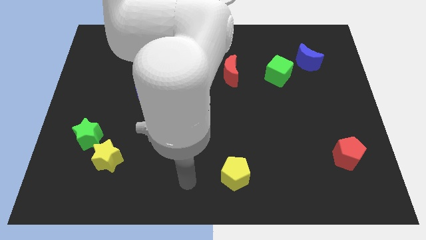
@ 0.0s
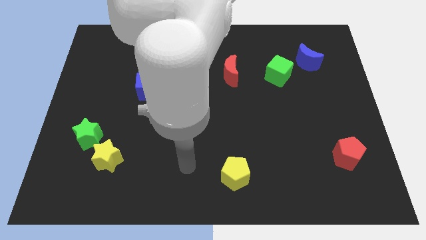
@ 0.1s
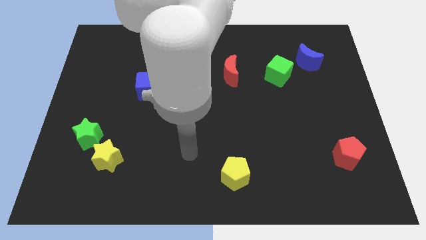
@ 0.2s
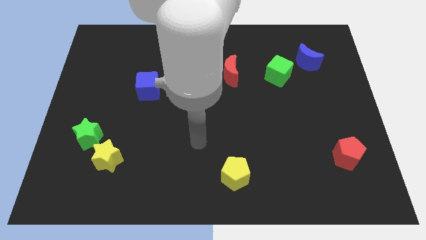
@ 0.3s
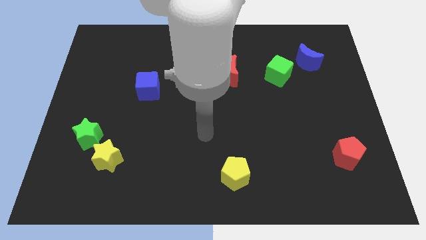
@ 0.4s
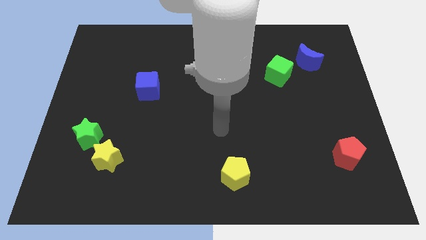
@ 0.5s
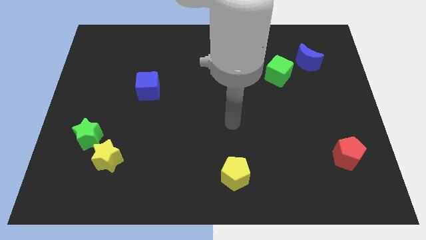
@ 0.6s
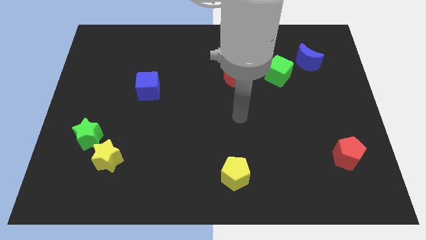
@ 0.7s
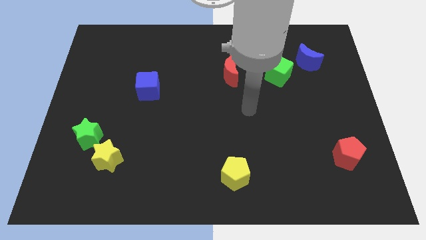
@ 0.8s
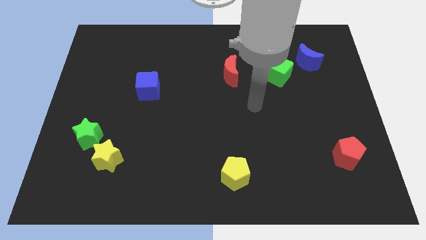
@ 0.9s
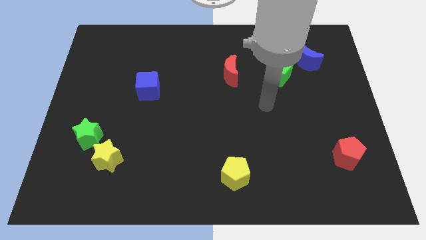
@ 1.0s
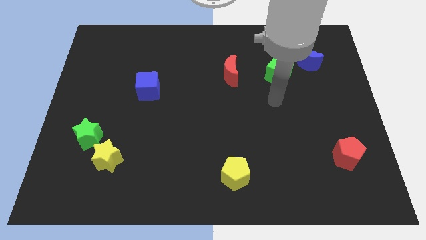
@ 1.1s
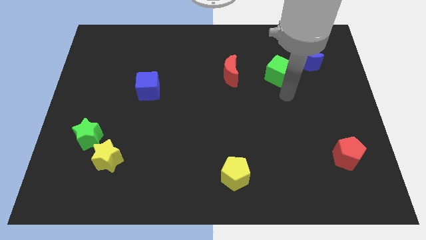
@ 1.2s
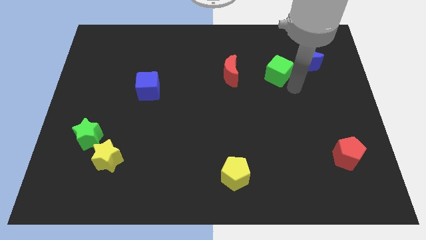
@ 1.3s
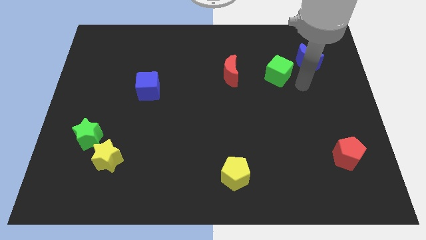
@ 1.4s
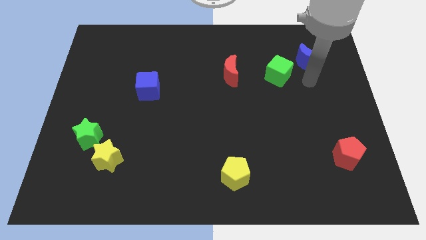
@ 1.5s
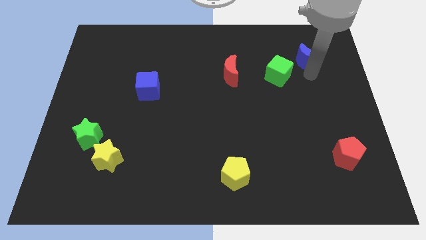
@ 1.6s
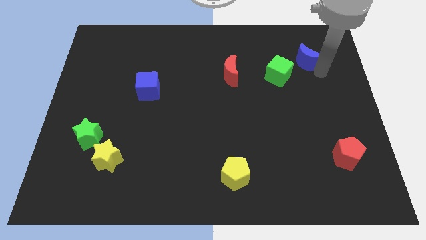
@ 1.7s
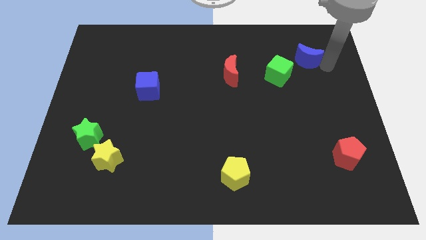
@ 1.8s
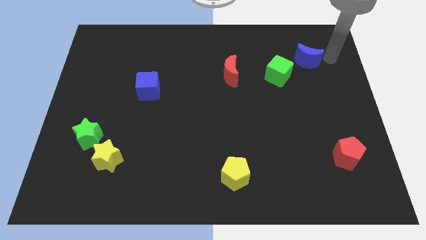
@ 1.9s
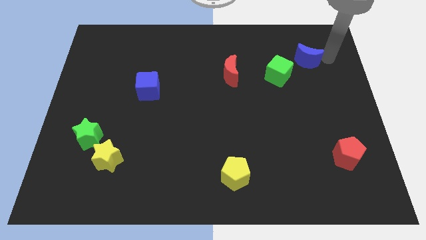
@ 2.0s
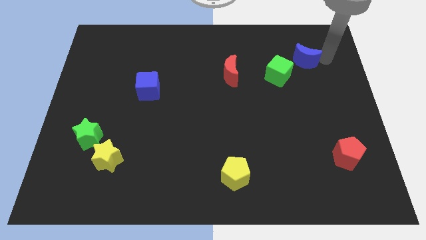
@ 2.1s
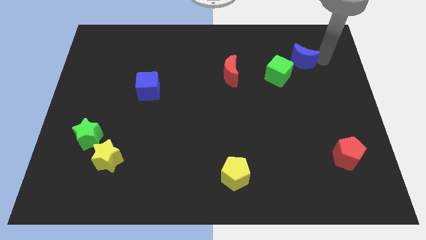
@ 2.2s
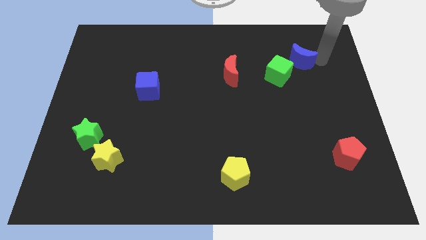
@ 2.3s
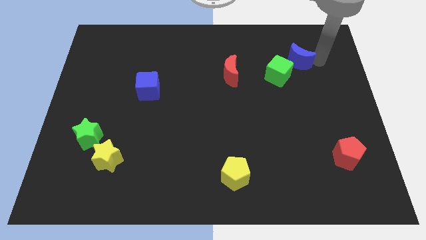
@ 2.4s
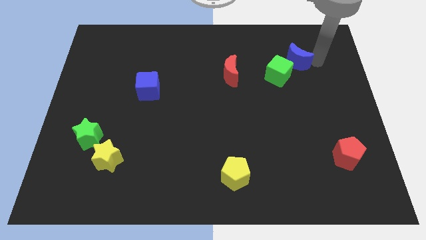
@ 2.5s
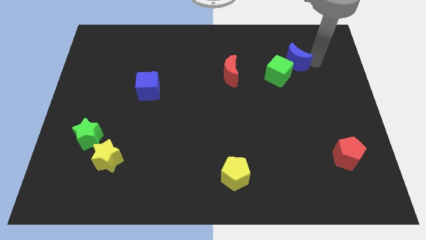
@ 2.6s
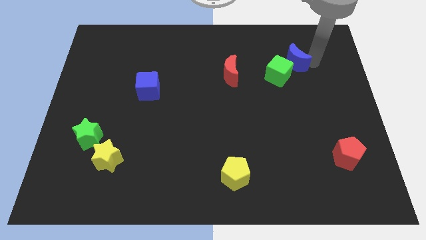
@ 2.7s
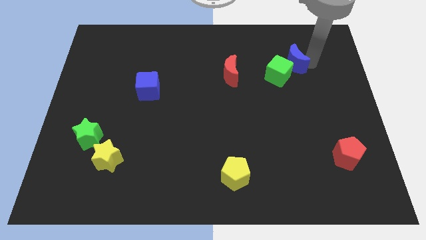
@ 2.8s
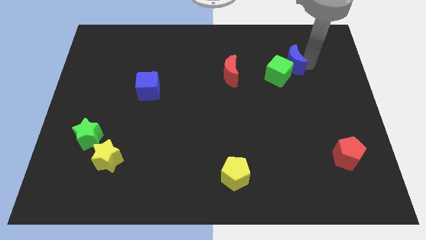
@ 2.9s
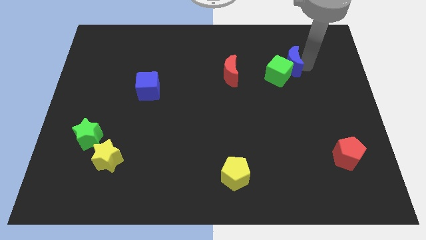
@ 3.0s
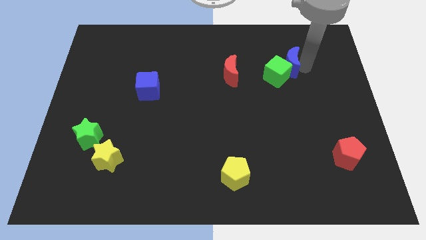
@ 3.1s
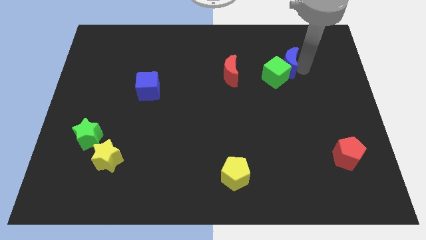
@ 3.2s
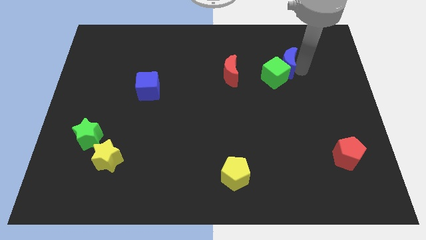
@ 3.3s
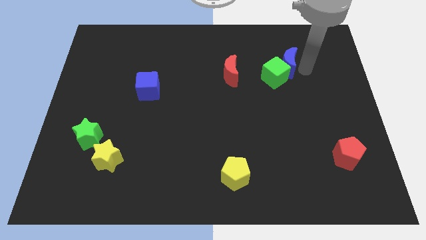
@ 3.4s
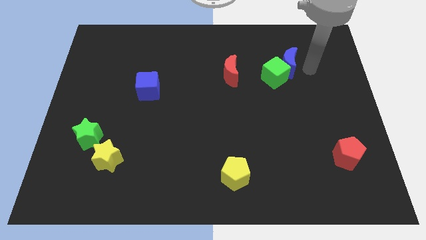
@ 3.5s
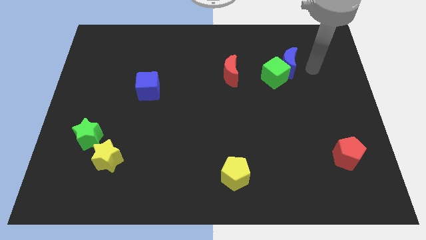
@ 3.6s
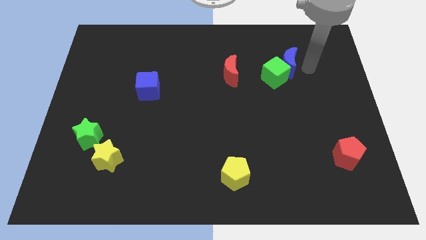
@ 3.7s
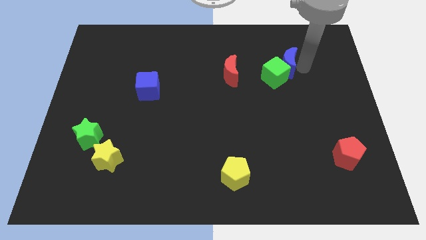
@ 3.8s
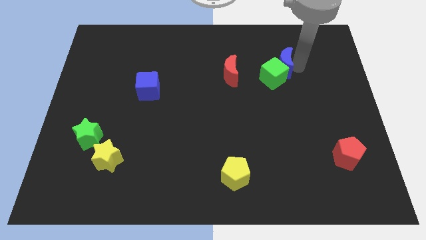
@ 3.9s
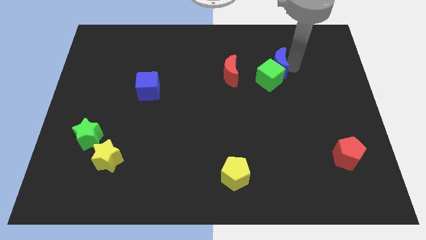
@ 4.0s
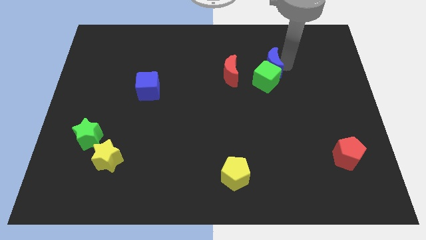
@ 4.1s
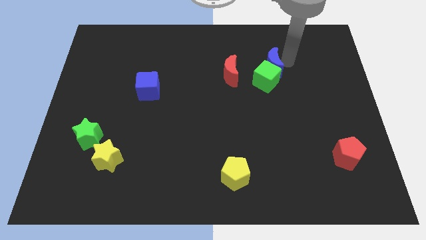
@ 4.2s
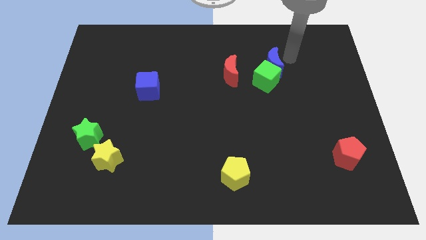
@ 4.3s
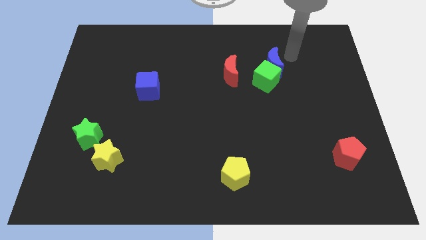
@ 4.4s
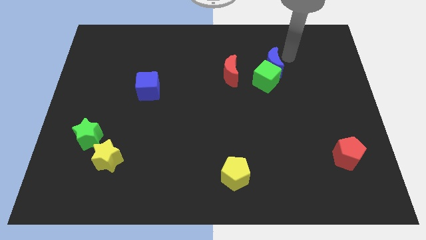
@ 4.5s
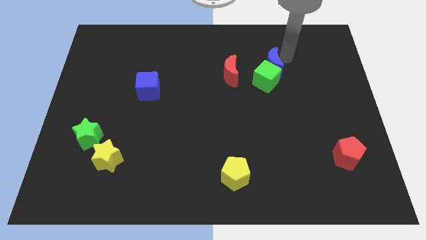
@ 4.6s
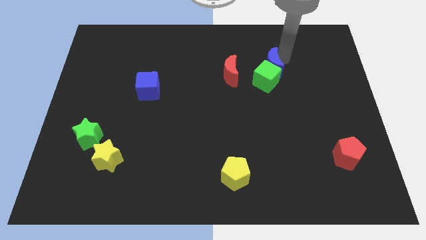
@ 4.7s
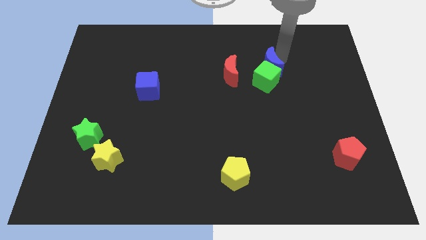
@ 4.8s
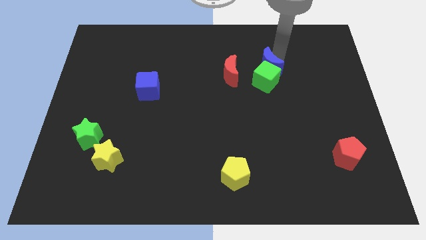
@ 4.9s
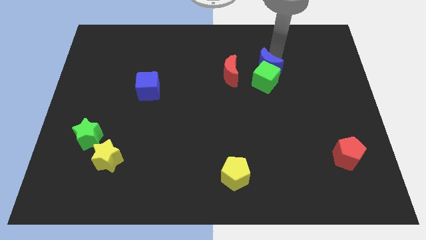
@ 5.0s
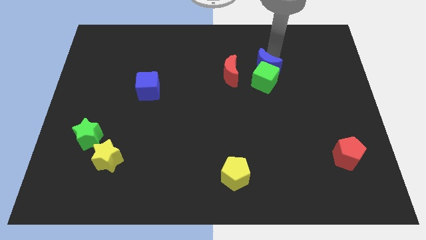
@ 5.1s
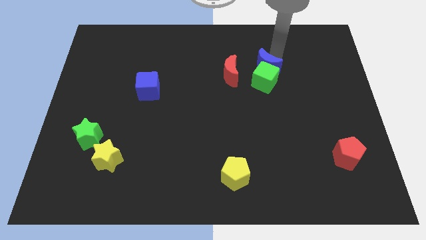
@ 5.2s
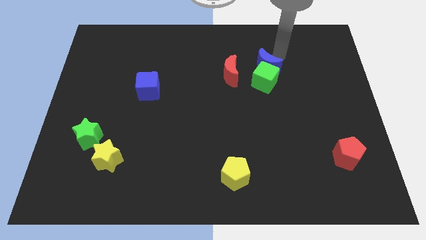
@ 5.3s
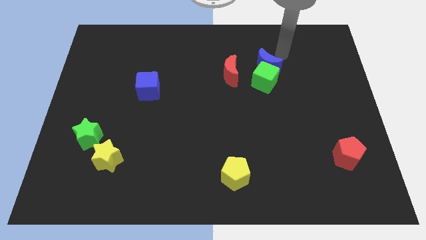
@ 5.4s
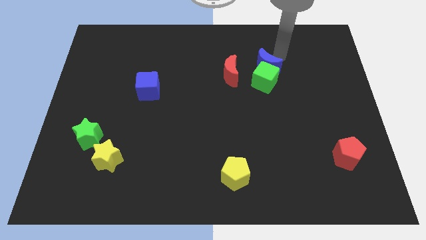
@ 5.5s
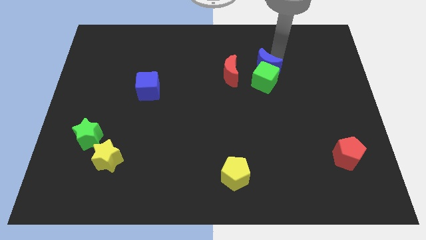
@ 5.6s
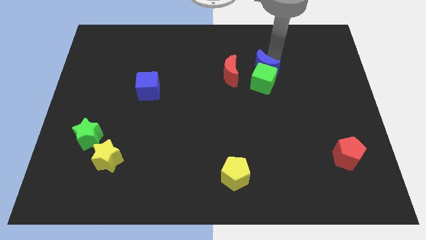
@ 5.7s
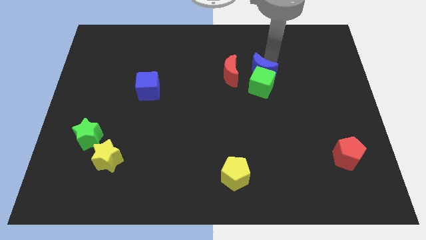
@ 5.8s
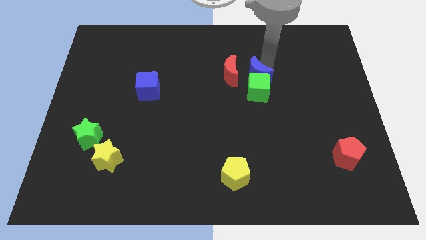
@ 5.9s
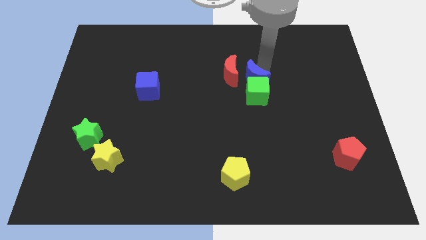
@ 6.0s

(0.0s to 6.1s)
move the blue moon to the center
